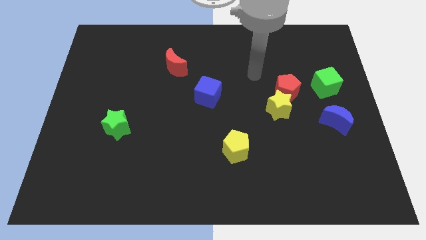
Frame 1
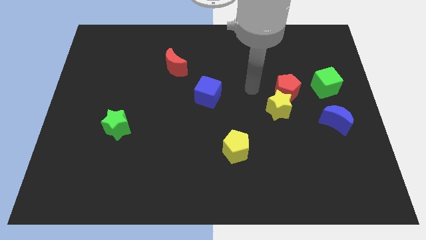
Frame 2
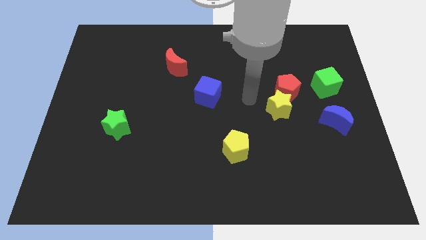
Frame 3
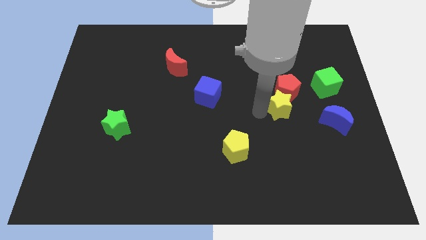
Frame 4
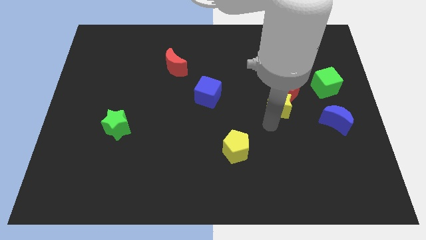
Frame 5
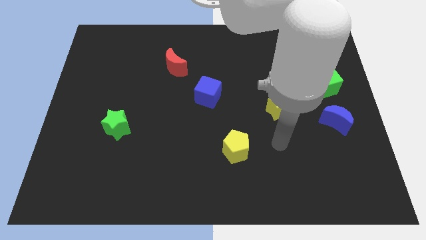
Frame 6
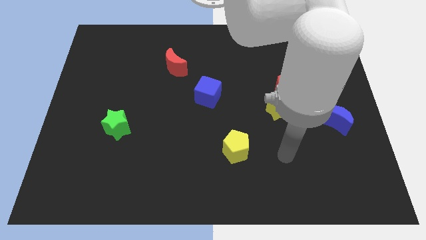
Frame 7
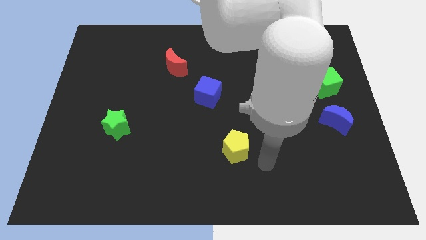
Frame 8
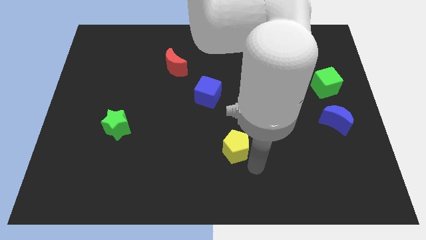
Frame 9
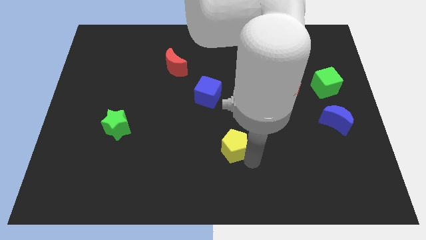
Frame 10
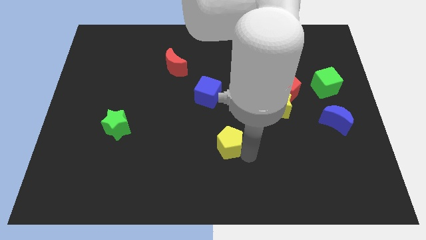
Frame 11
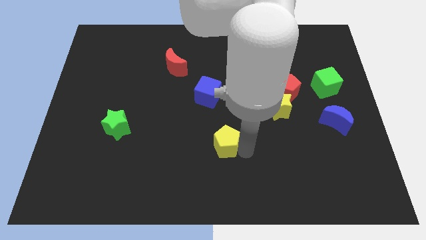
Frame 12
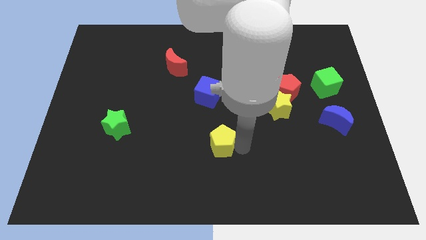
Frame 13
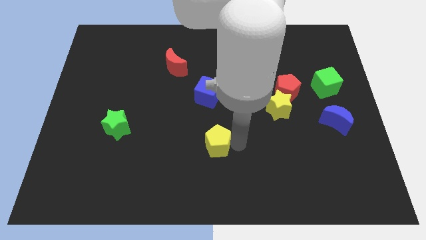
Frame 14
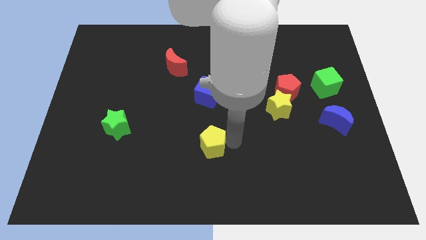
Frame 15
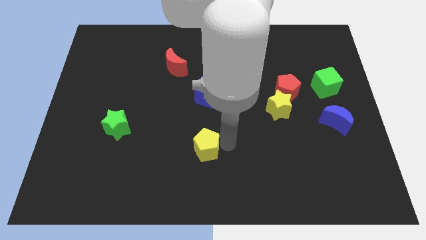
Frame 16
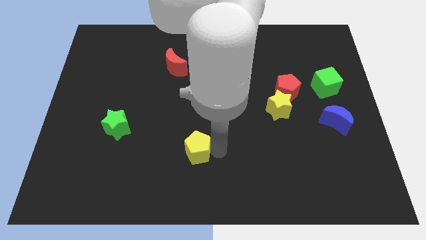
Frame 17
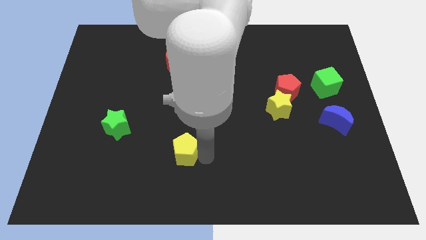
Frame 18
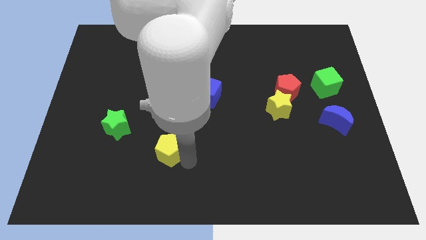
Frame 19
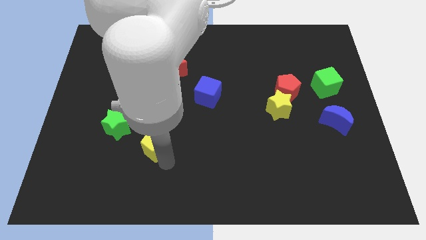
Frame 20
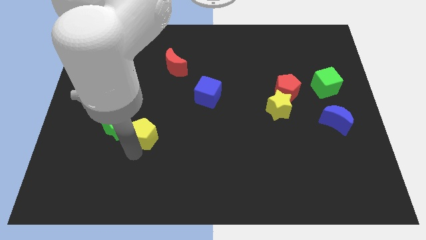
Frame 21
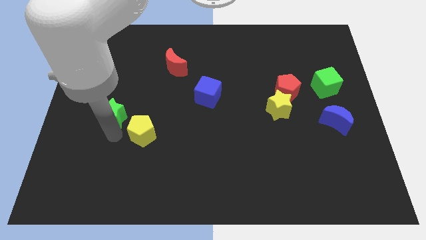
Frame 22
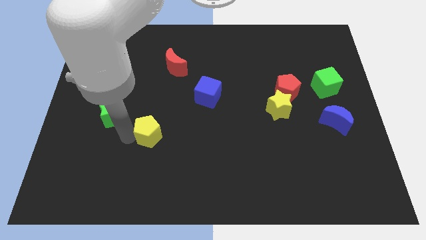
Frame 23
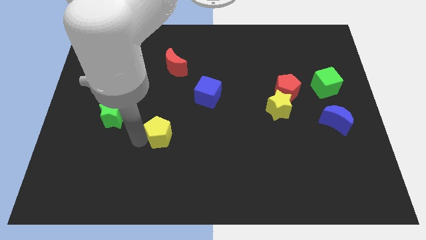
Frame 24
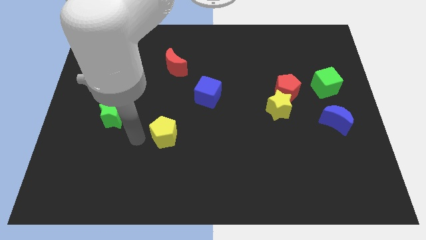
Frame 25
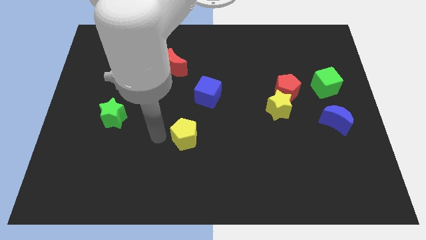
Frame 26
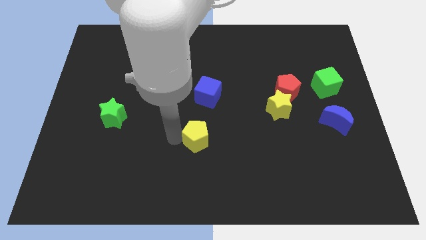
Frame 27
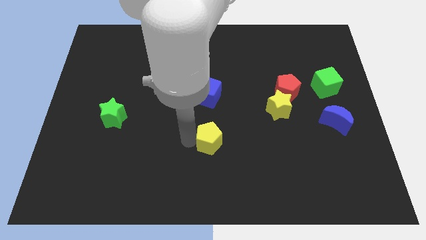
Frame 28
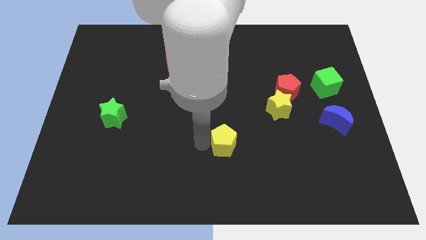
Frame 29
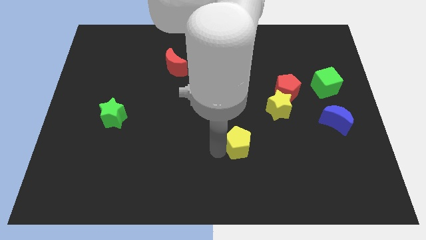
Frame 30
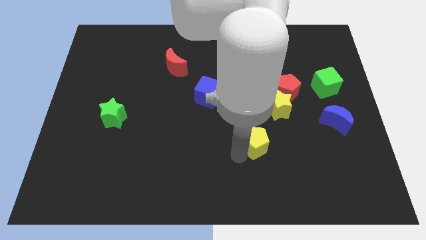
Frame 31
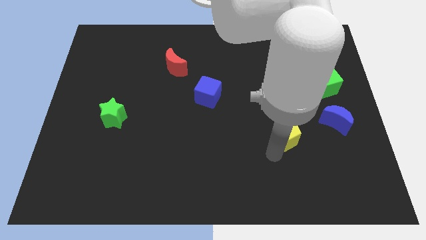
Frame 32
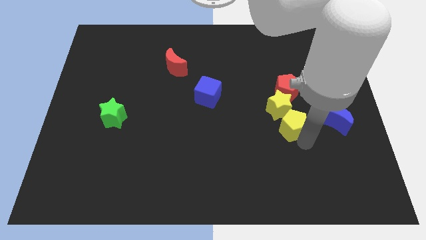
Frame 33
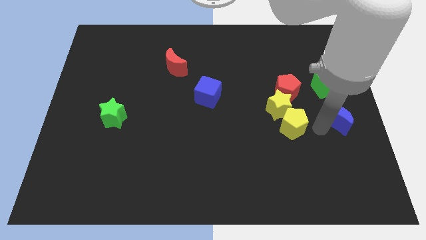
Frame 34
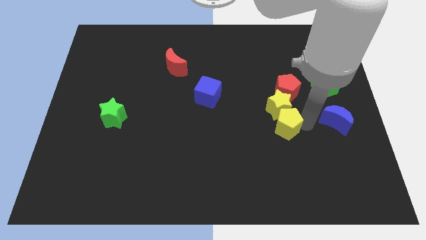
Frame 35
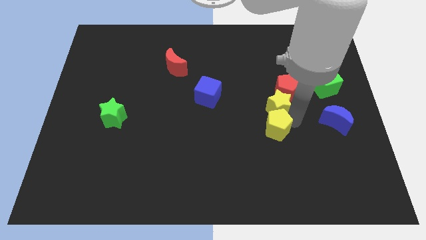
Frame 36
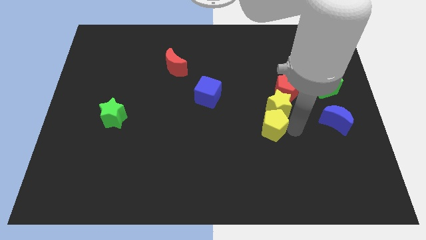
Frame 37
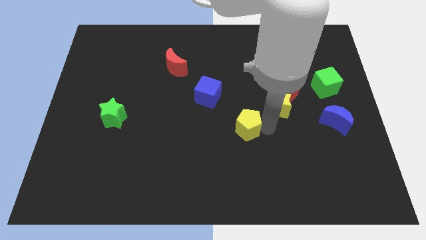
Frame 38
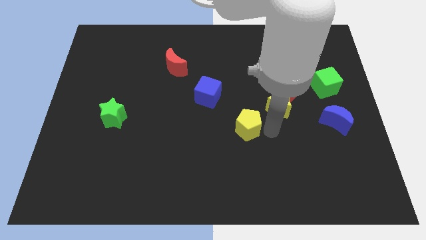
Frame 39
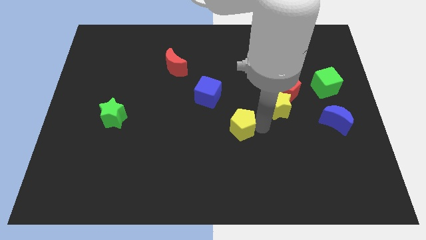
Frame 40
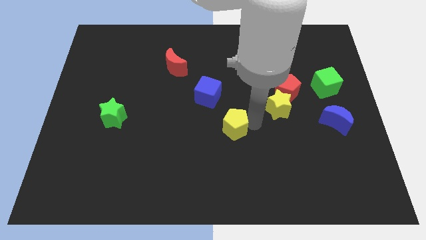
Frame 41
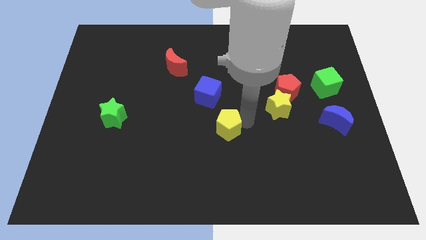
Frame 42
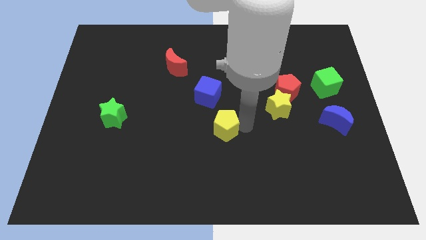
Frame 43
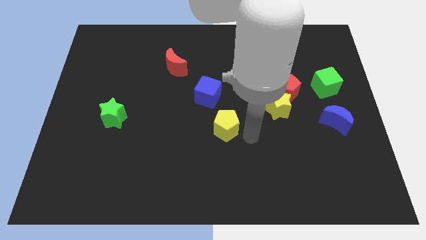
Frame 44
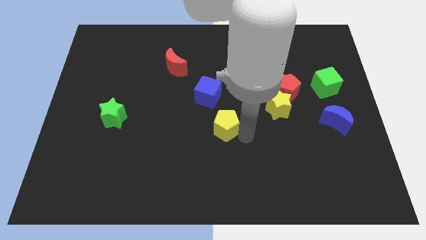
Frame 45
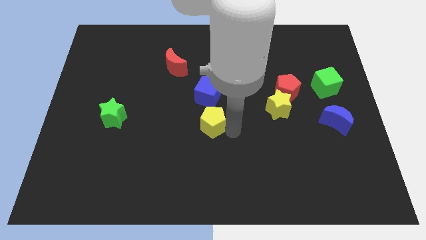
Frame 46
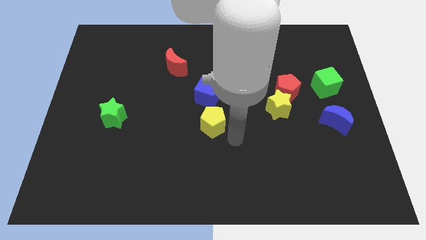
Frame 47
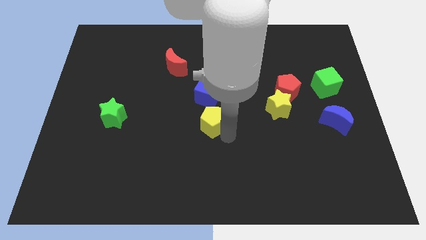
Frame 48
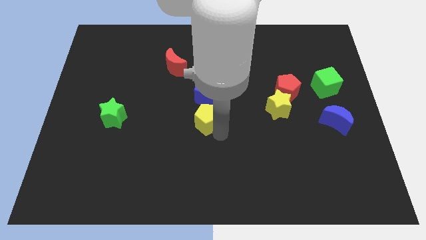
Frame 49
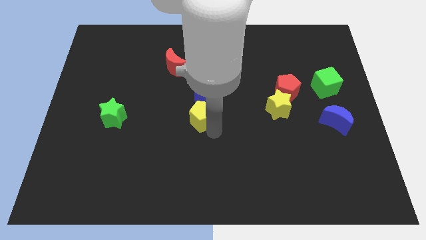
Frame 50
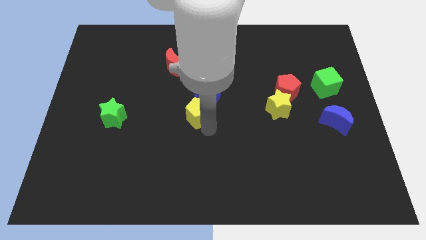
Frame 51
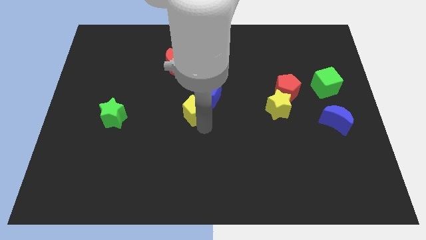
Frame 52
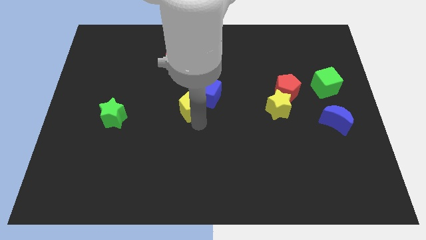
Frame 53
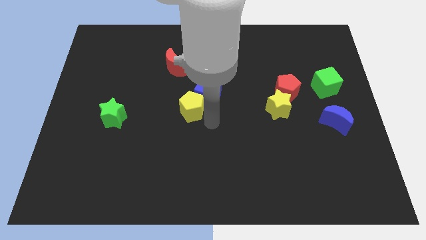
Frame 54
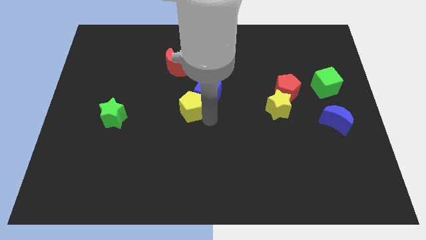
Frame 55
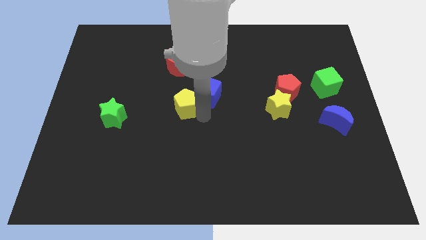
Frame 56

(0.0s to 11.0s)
slide the yellow pentagon below the red moon

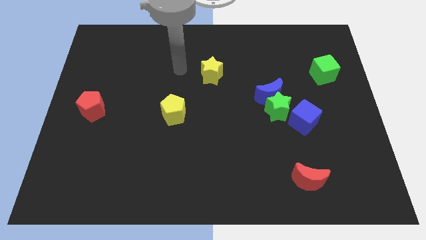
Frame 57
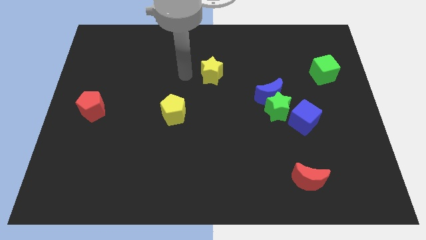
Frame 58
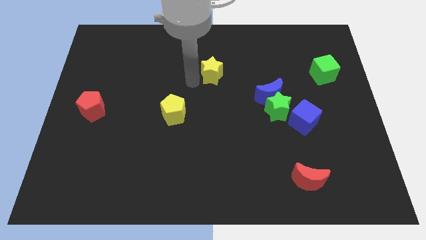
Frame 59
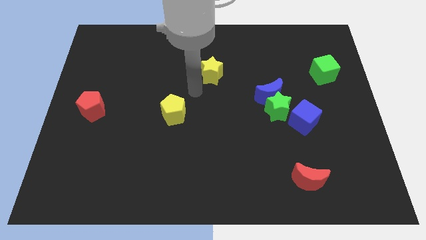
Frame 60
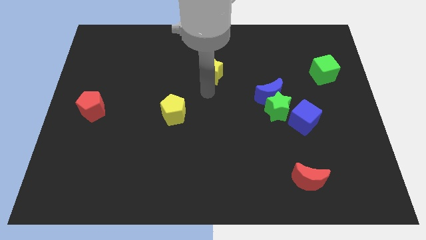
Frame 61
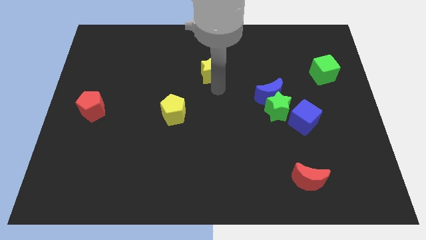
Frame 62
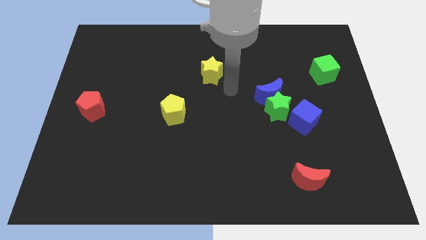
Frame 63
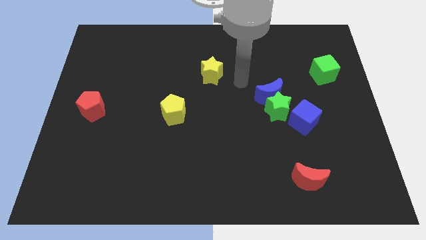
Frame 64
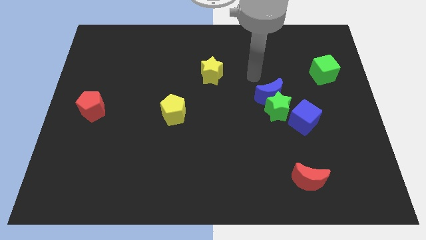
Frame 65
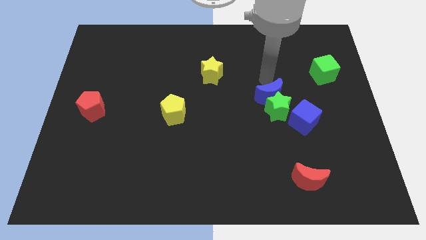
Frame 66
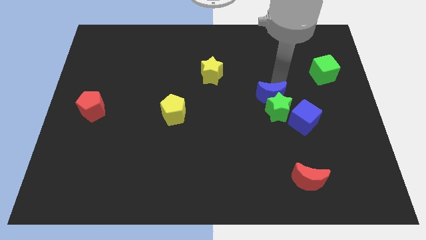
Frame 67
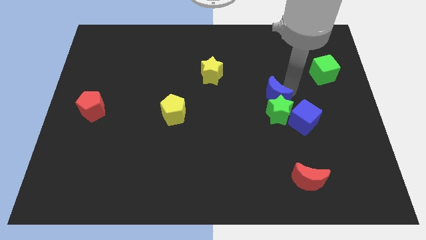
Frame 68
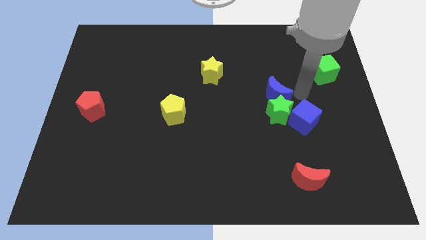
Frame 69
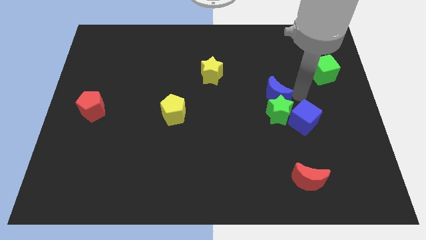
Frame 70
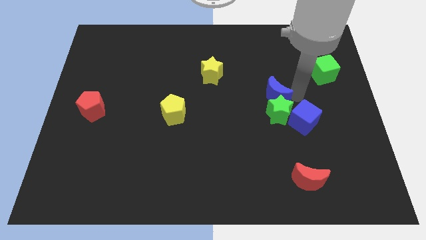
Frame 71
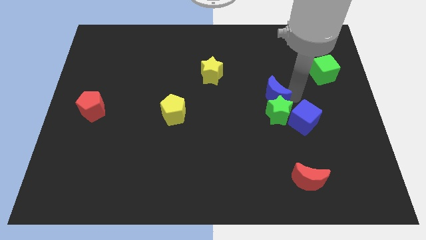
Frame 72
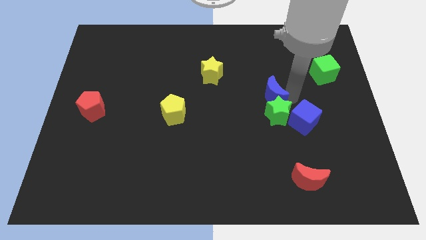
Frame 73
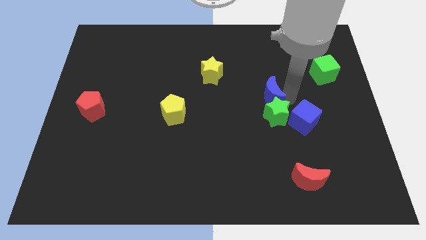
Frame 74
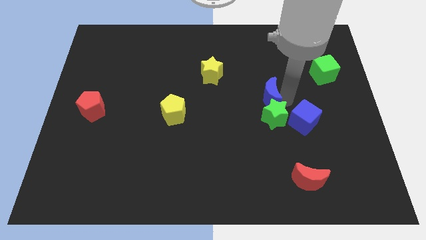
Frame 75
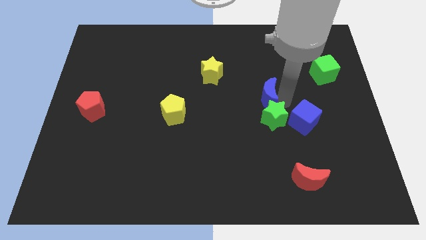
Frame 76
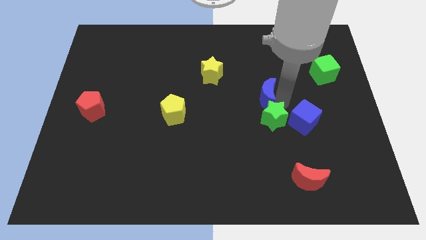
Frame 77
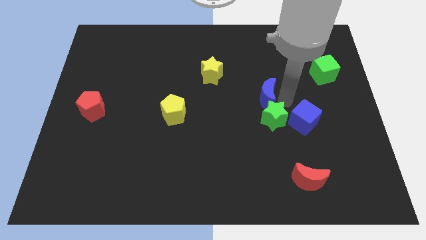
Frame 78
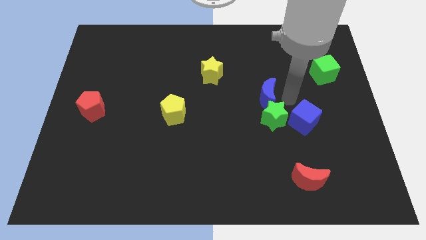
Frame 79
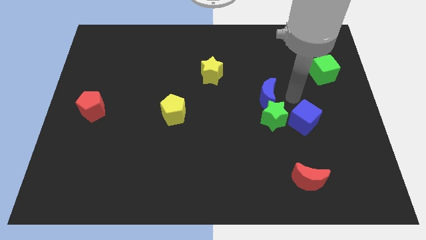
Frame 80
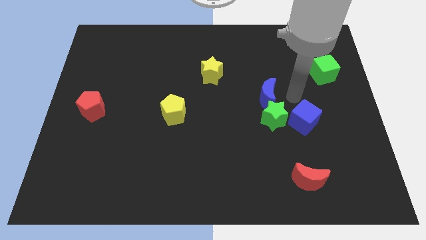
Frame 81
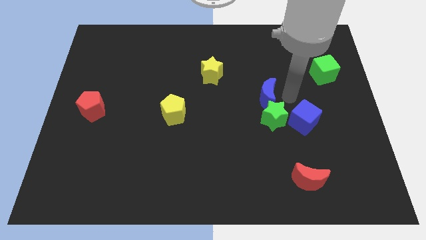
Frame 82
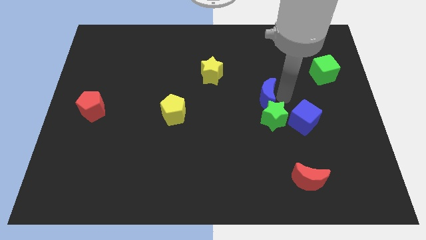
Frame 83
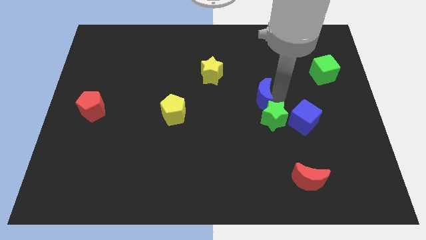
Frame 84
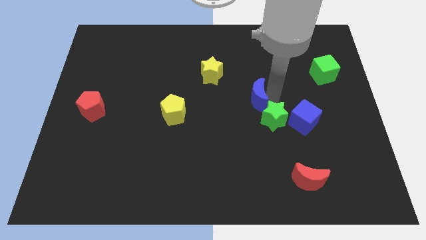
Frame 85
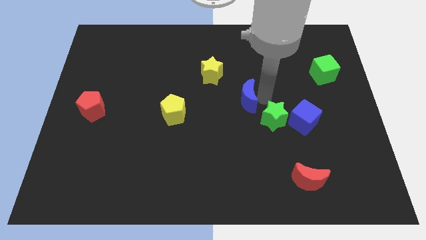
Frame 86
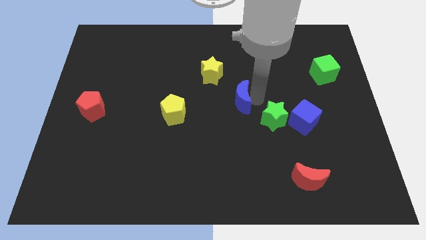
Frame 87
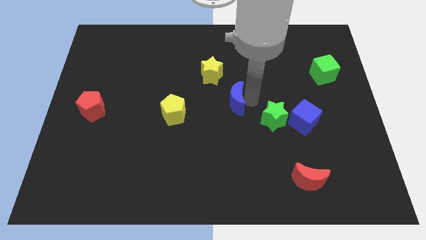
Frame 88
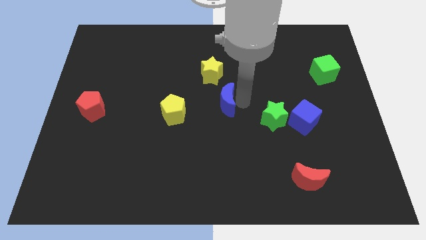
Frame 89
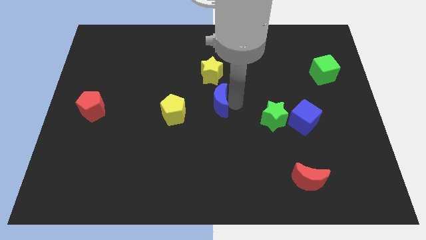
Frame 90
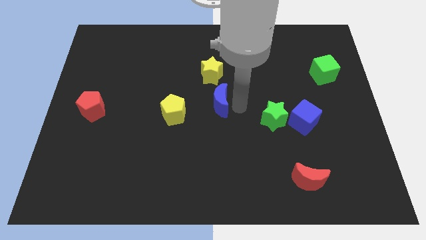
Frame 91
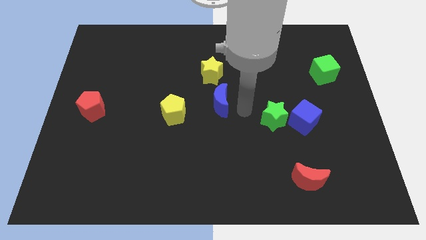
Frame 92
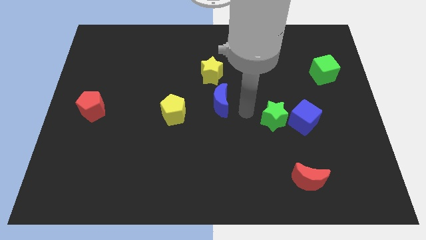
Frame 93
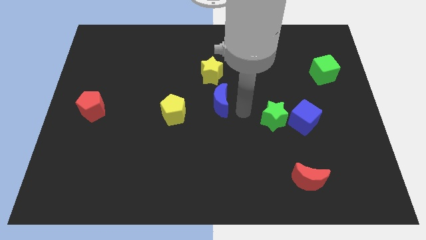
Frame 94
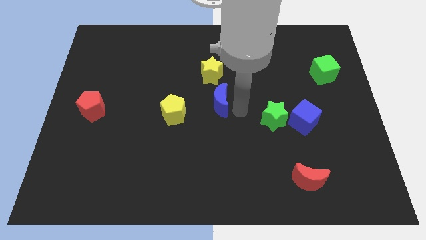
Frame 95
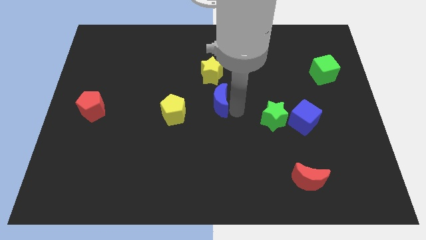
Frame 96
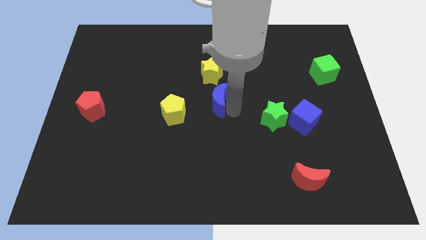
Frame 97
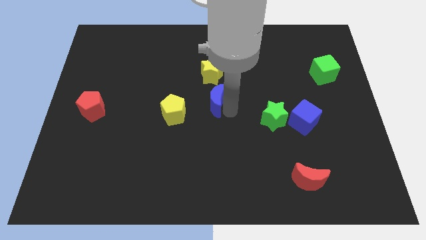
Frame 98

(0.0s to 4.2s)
put the blue moon to the top right of the yellow pentagon
